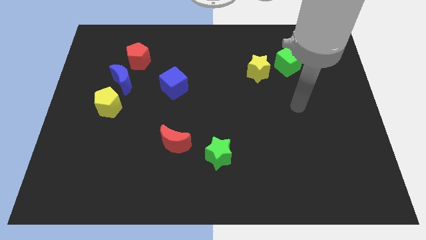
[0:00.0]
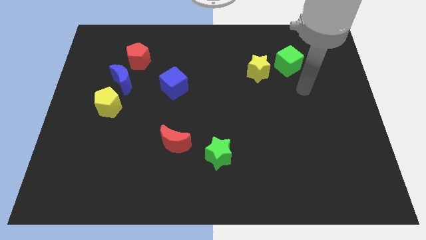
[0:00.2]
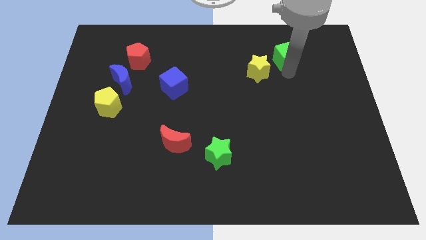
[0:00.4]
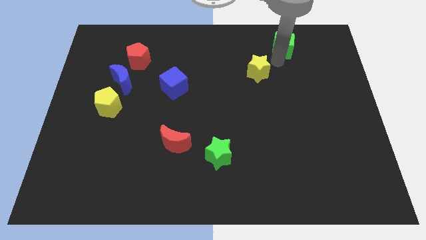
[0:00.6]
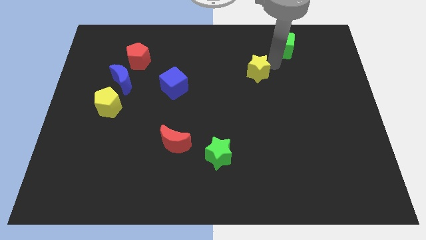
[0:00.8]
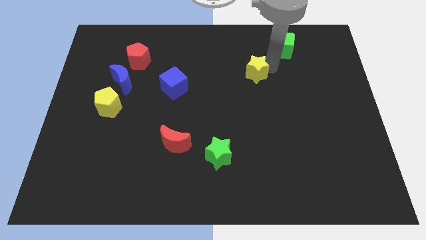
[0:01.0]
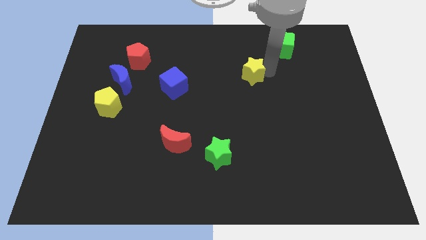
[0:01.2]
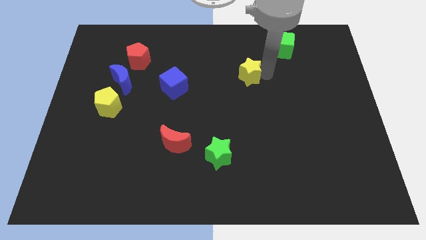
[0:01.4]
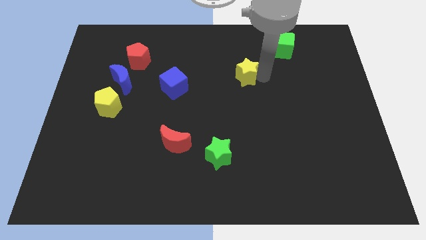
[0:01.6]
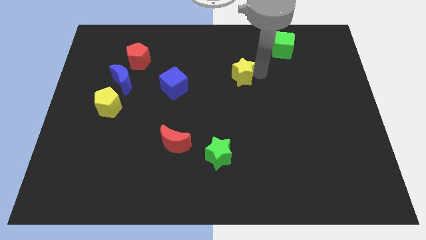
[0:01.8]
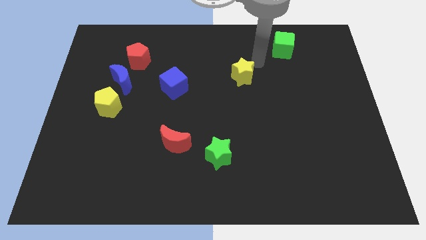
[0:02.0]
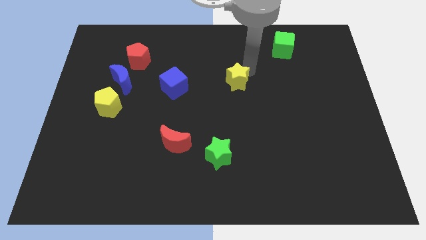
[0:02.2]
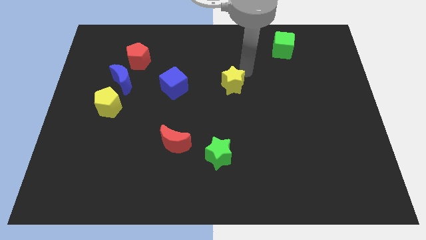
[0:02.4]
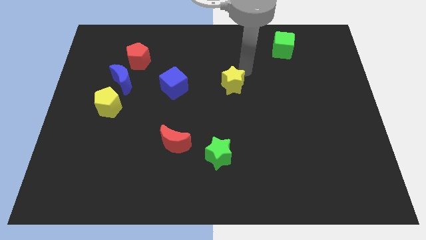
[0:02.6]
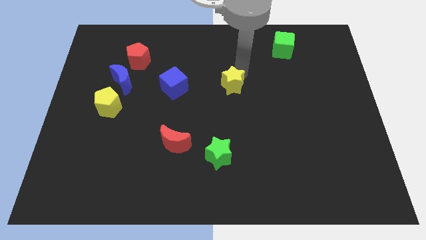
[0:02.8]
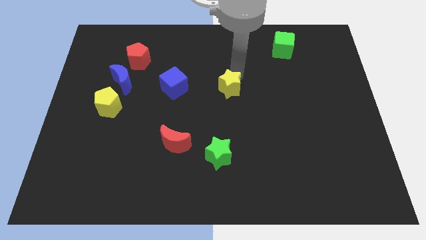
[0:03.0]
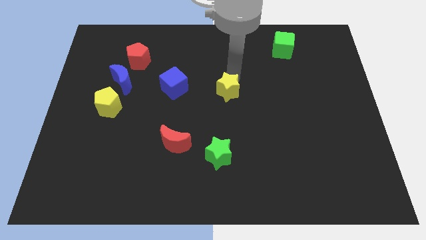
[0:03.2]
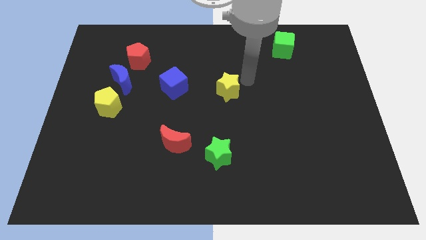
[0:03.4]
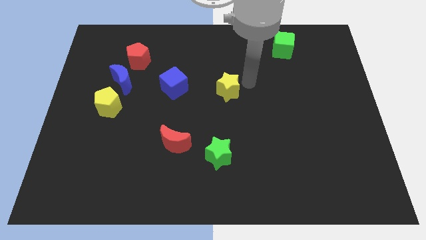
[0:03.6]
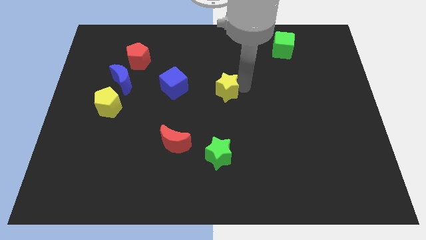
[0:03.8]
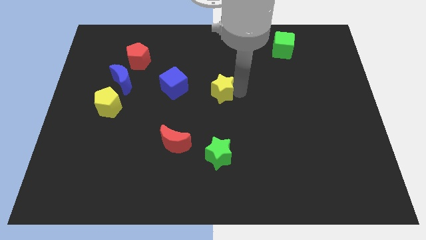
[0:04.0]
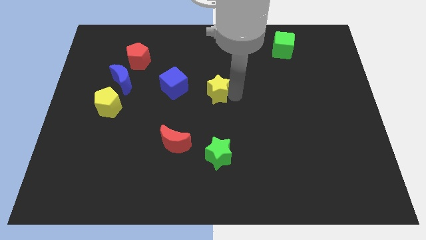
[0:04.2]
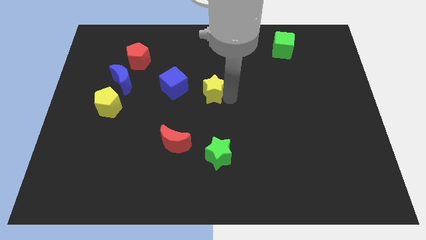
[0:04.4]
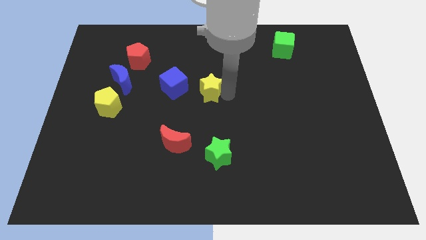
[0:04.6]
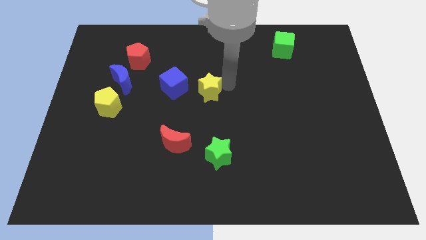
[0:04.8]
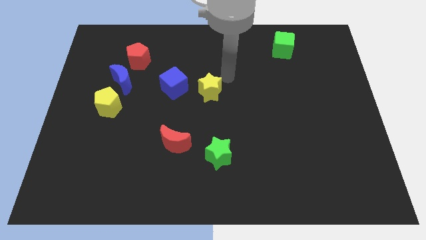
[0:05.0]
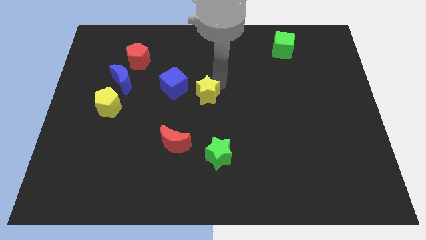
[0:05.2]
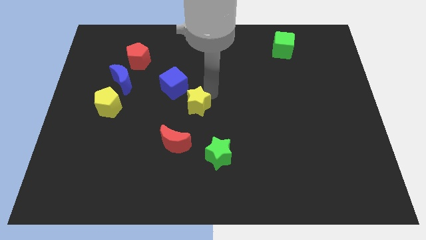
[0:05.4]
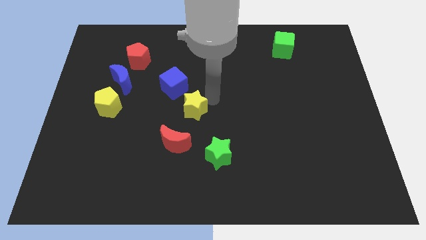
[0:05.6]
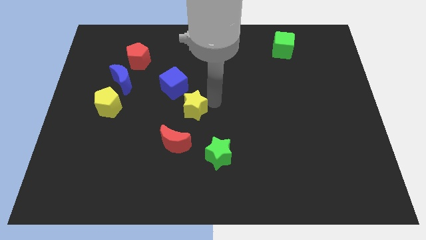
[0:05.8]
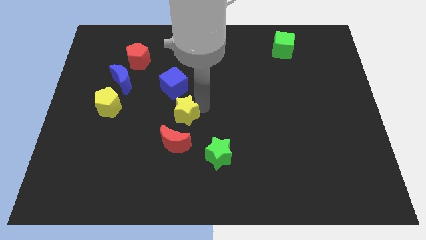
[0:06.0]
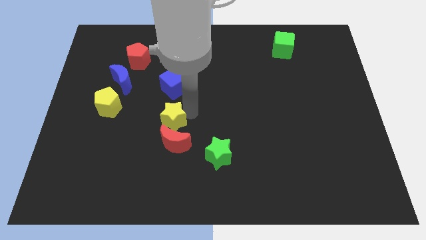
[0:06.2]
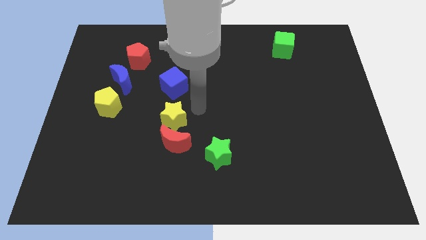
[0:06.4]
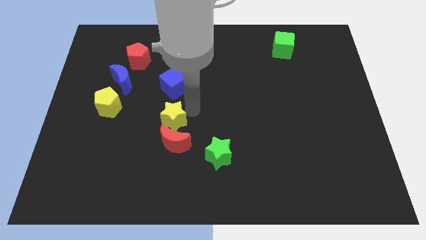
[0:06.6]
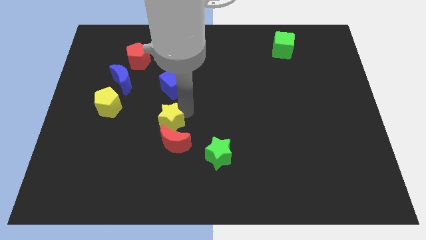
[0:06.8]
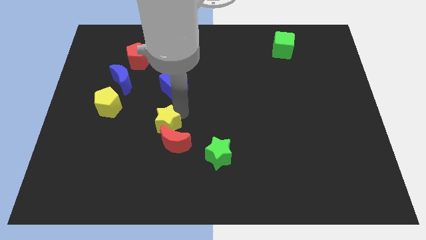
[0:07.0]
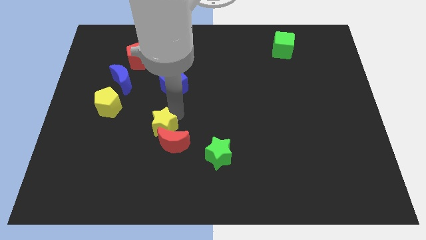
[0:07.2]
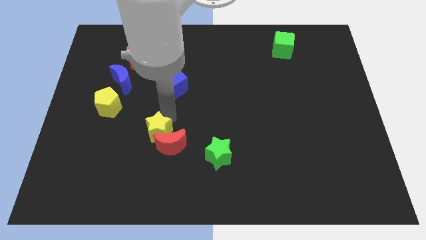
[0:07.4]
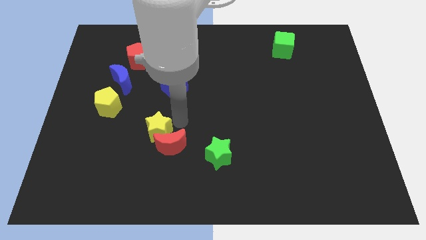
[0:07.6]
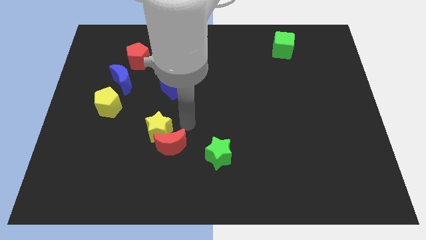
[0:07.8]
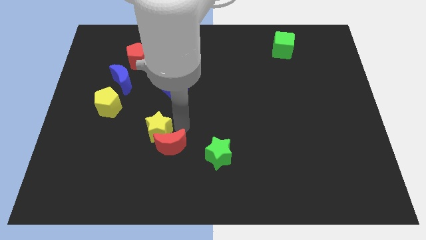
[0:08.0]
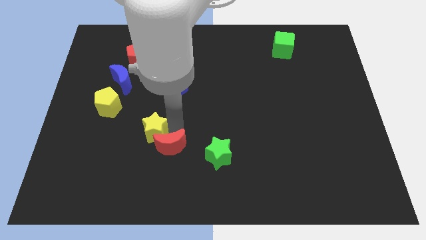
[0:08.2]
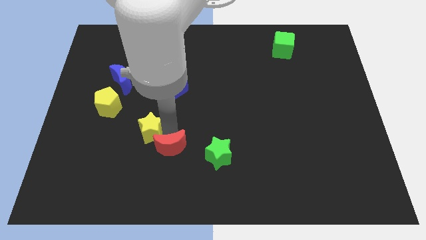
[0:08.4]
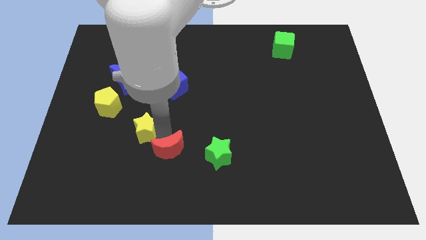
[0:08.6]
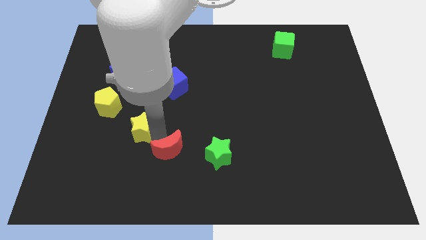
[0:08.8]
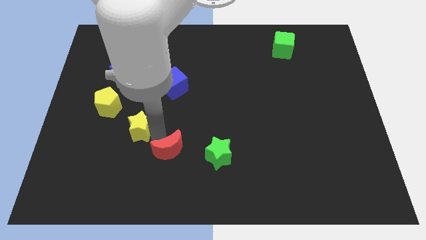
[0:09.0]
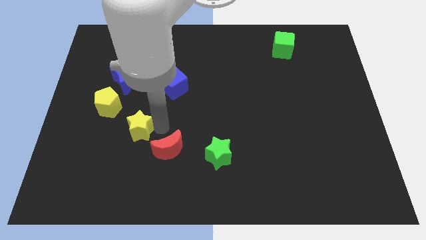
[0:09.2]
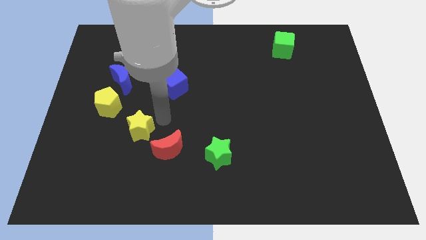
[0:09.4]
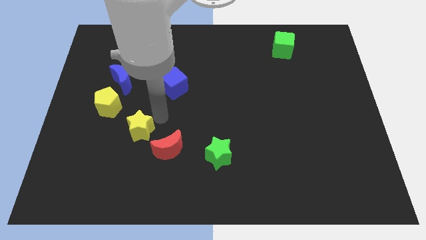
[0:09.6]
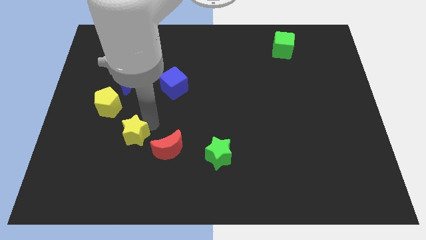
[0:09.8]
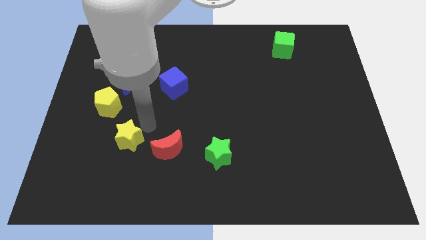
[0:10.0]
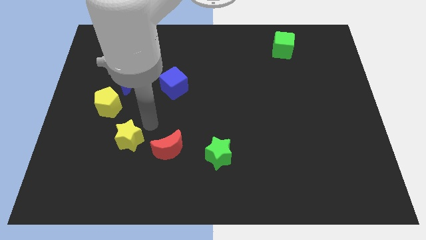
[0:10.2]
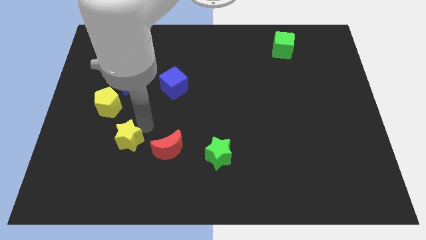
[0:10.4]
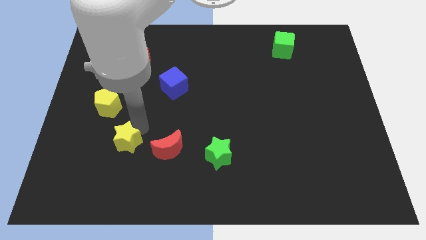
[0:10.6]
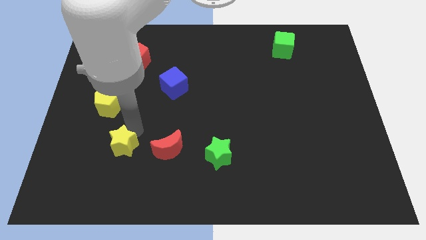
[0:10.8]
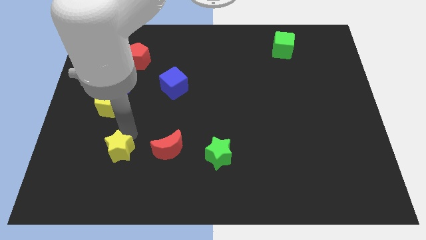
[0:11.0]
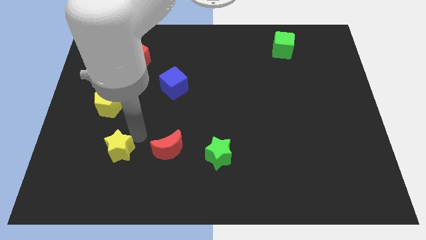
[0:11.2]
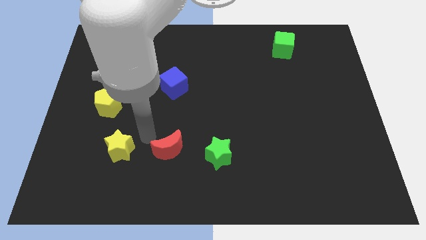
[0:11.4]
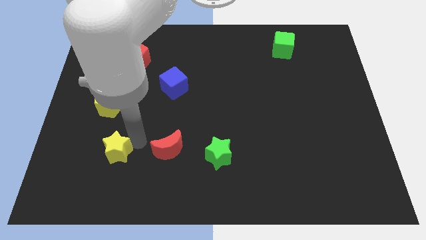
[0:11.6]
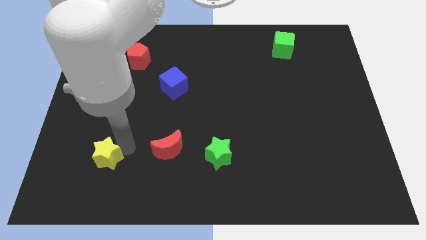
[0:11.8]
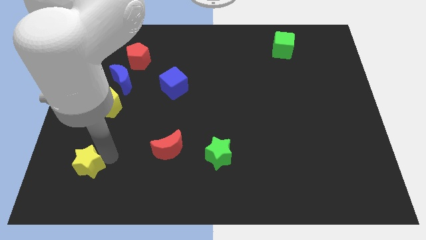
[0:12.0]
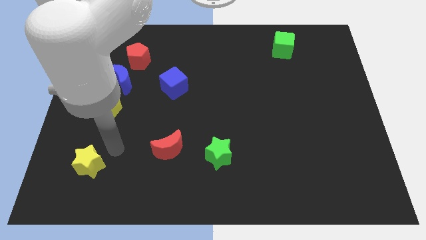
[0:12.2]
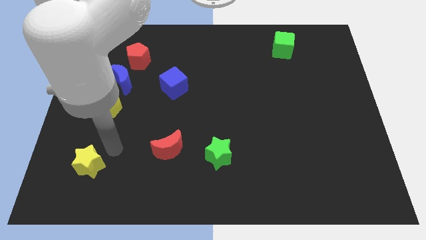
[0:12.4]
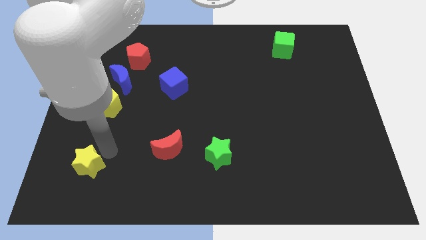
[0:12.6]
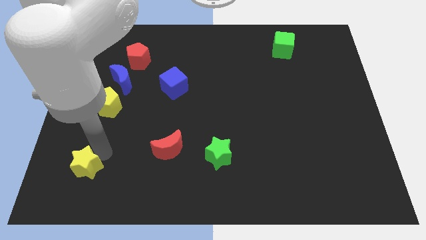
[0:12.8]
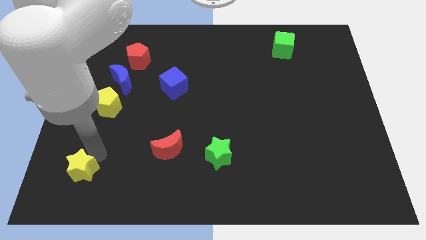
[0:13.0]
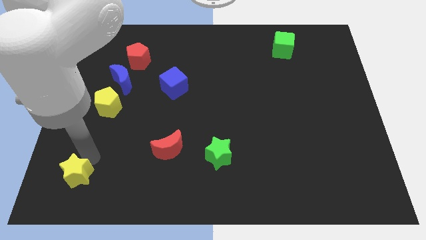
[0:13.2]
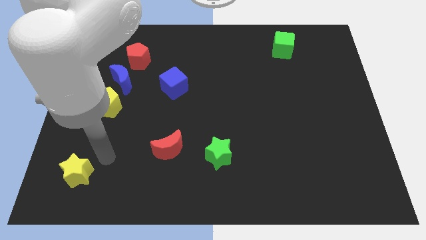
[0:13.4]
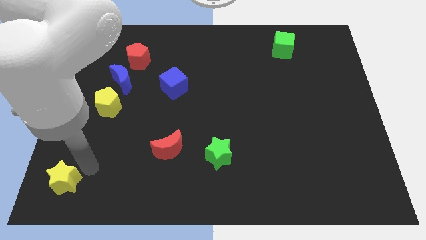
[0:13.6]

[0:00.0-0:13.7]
slide the yellow star to the bottom left corner
